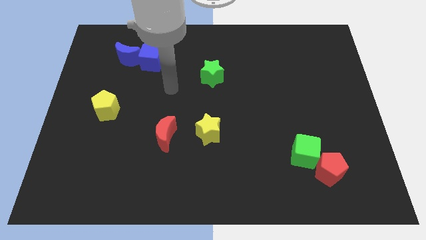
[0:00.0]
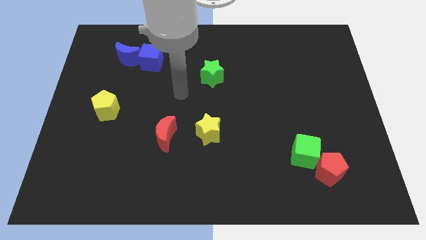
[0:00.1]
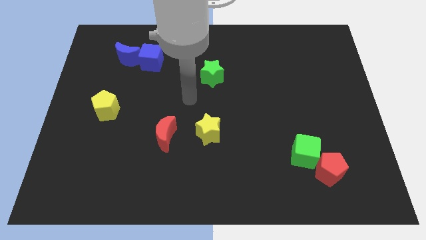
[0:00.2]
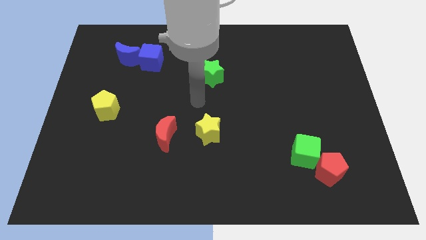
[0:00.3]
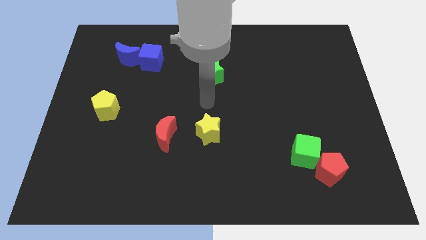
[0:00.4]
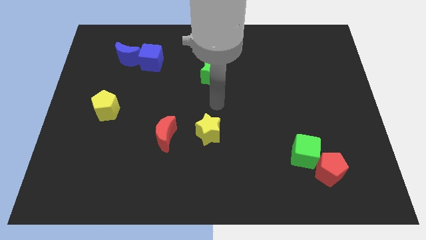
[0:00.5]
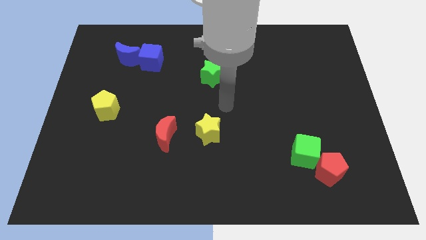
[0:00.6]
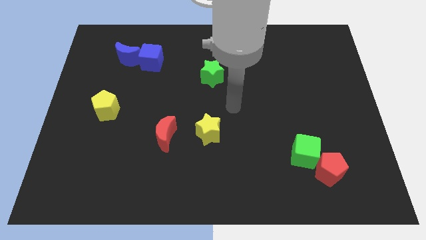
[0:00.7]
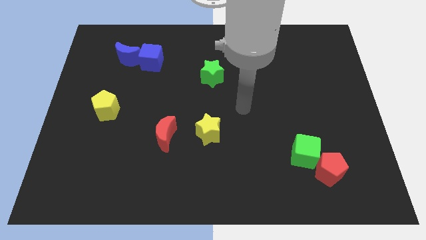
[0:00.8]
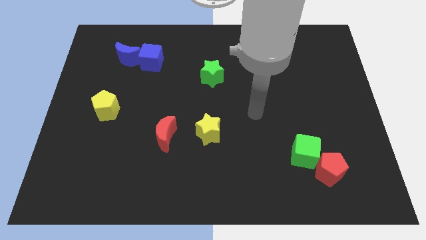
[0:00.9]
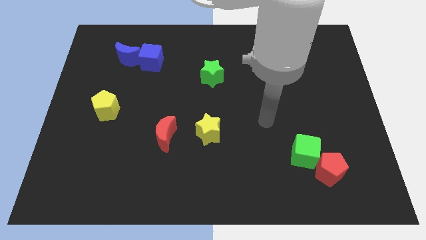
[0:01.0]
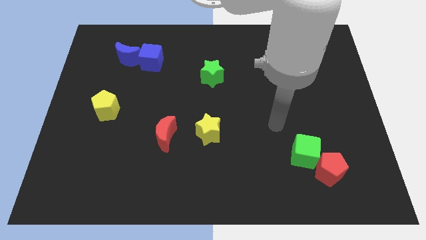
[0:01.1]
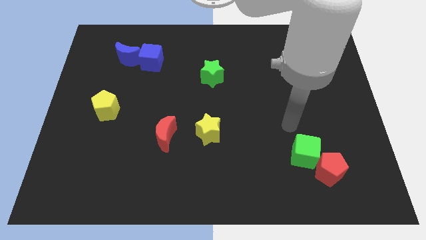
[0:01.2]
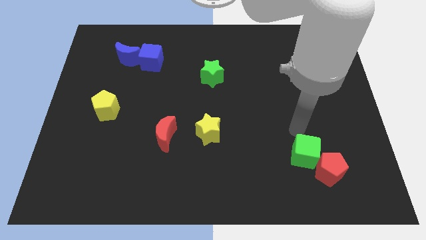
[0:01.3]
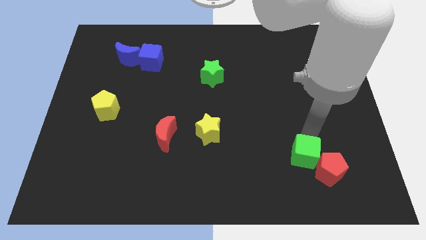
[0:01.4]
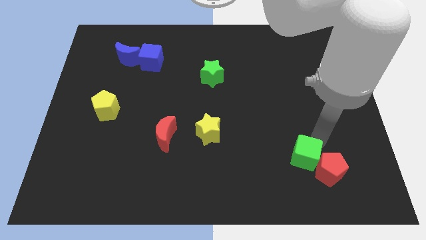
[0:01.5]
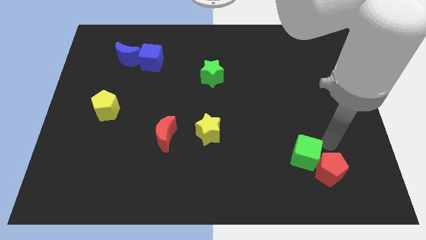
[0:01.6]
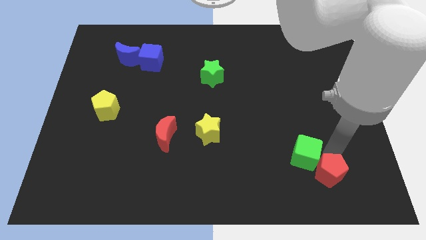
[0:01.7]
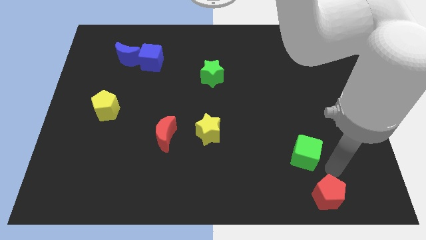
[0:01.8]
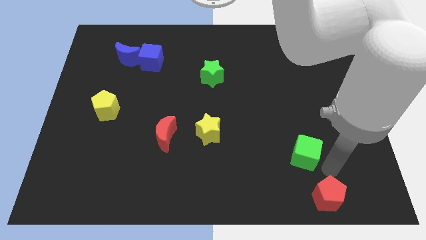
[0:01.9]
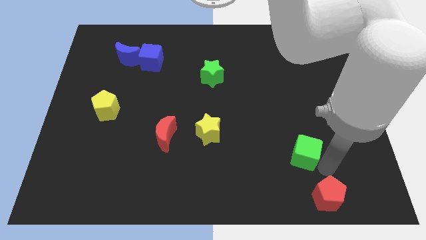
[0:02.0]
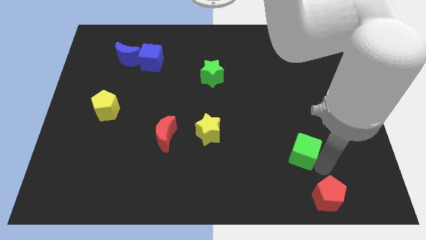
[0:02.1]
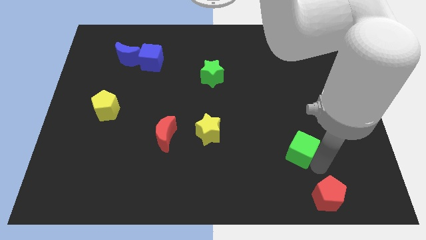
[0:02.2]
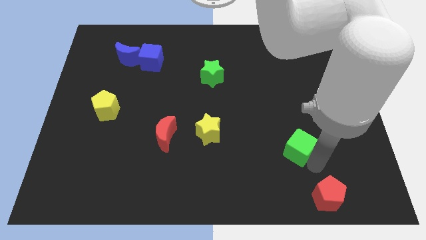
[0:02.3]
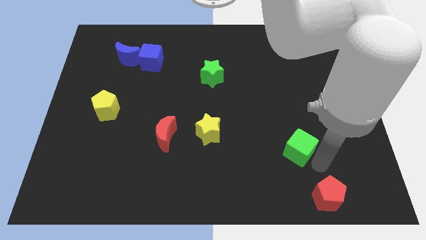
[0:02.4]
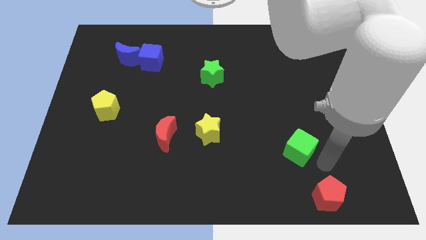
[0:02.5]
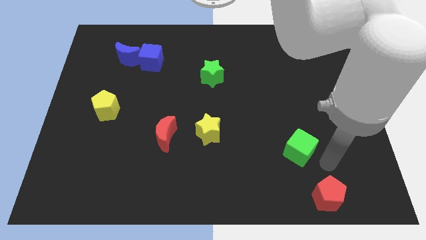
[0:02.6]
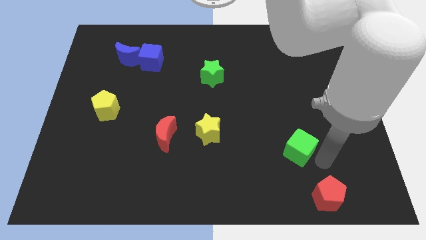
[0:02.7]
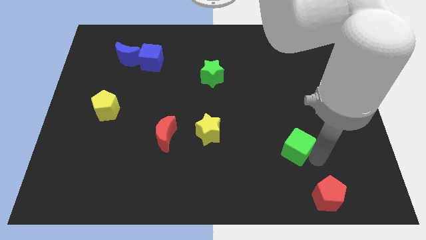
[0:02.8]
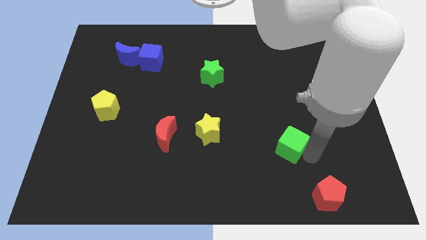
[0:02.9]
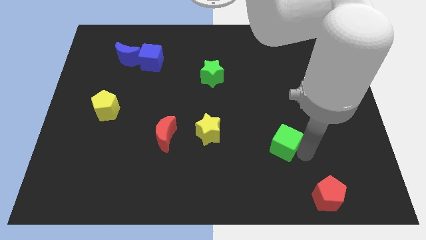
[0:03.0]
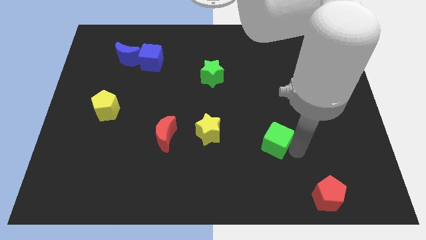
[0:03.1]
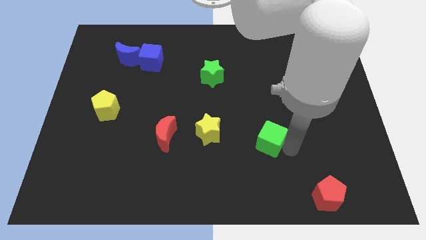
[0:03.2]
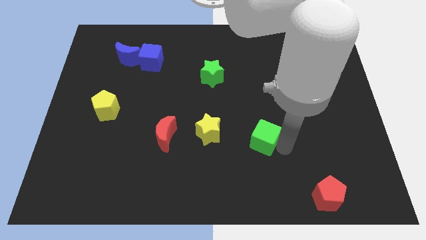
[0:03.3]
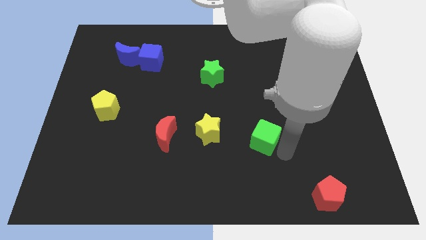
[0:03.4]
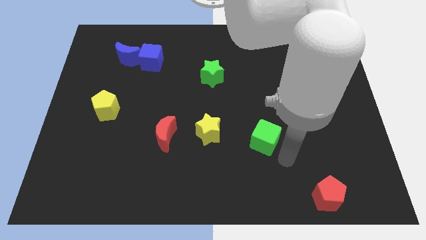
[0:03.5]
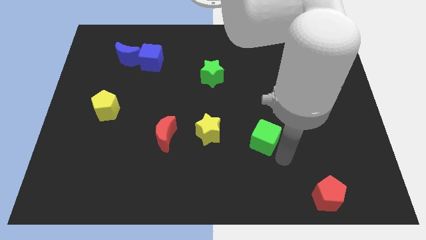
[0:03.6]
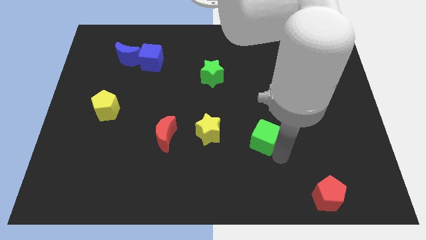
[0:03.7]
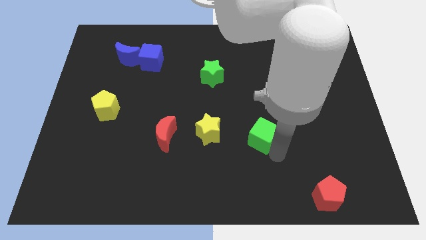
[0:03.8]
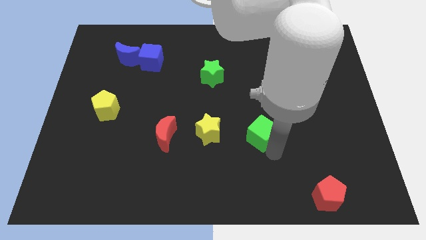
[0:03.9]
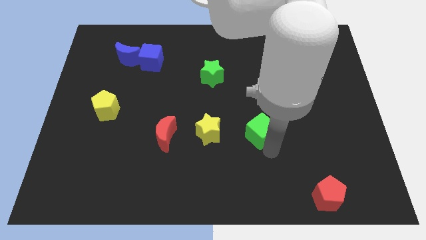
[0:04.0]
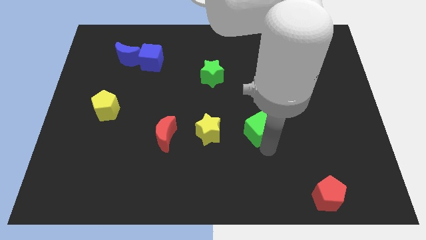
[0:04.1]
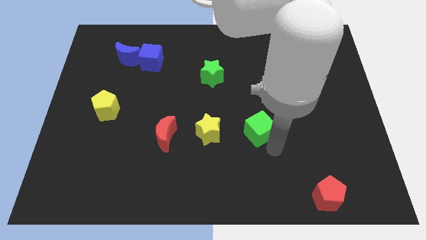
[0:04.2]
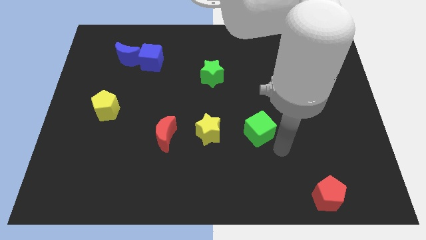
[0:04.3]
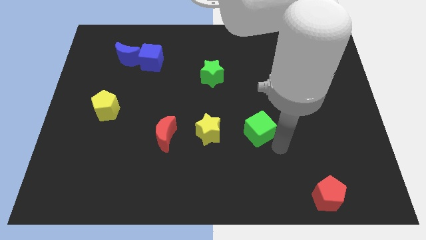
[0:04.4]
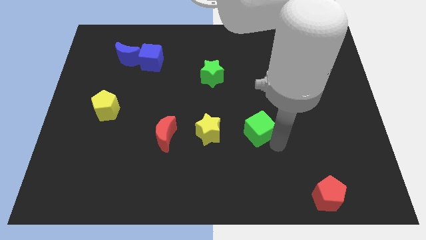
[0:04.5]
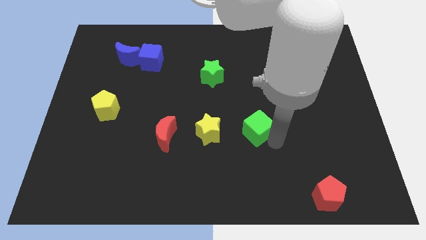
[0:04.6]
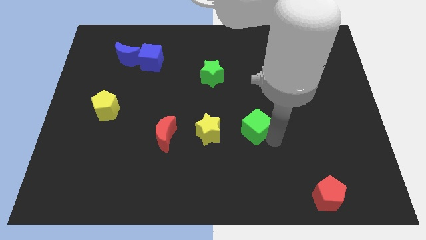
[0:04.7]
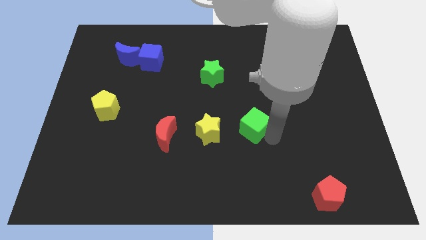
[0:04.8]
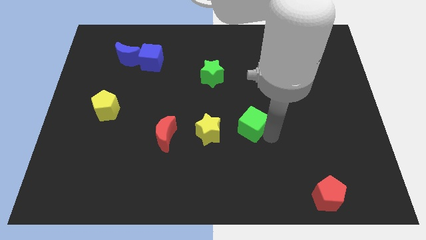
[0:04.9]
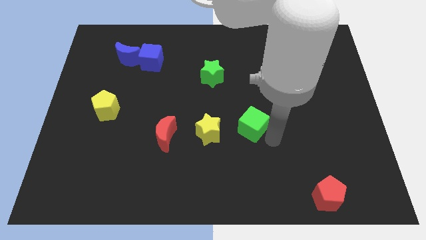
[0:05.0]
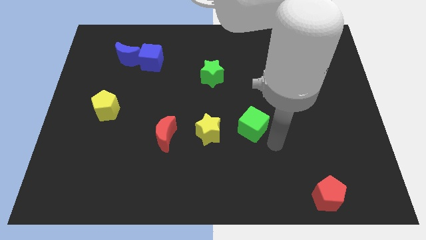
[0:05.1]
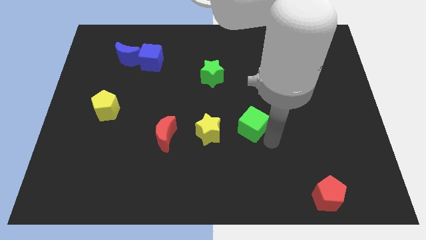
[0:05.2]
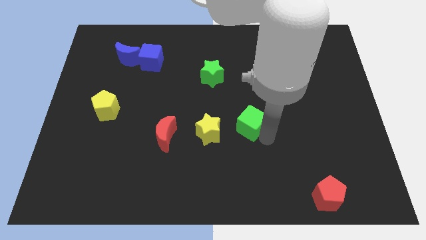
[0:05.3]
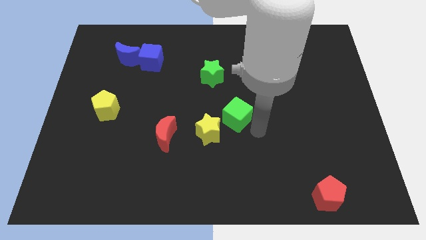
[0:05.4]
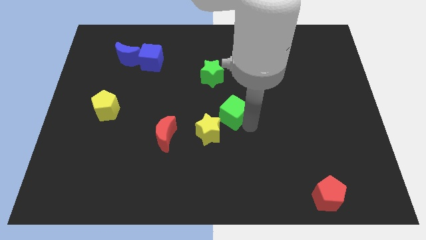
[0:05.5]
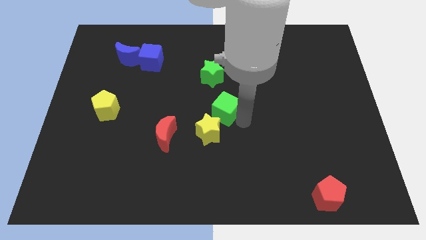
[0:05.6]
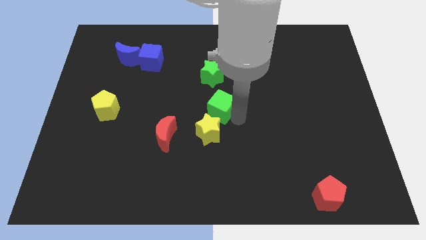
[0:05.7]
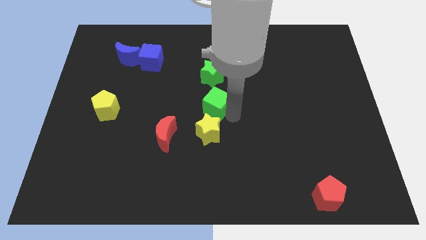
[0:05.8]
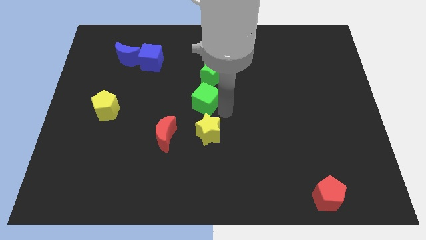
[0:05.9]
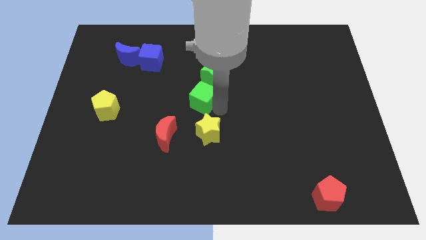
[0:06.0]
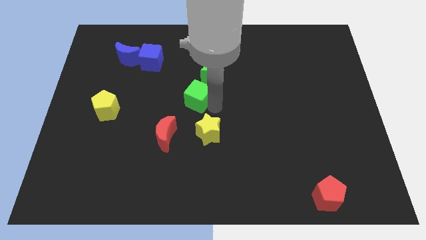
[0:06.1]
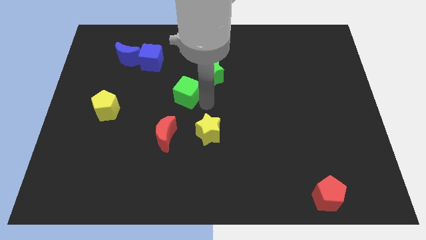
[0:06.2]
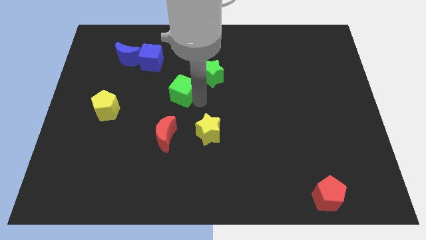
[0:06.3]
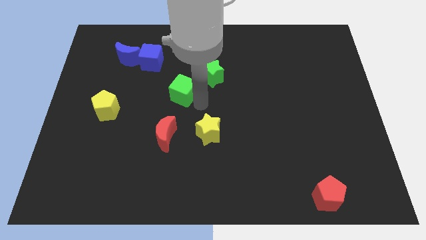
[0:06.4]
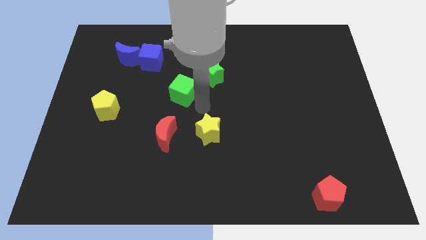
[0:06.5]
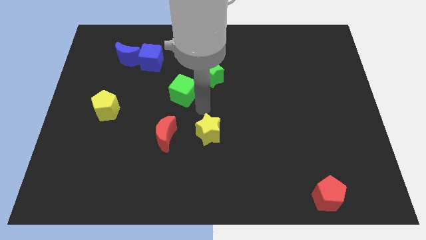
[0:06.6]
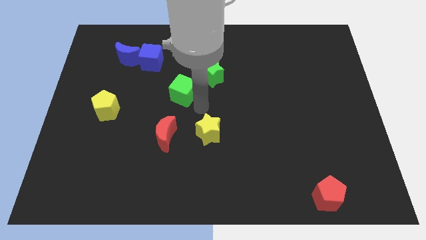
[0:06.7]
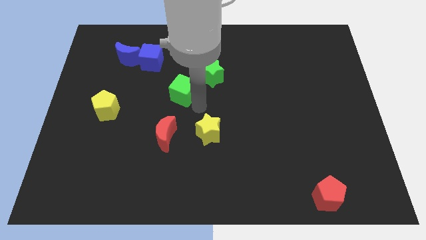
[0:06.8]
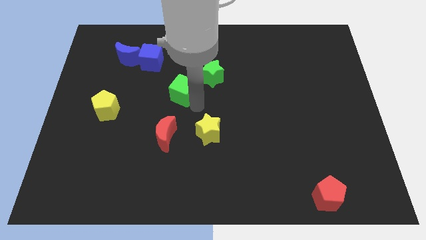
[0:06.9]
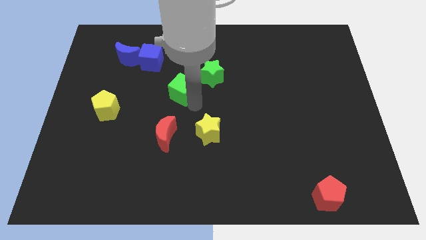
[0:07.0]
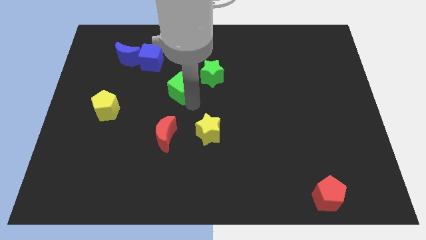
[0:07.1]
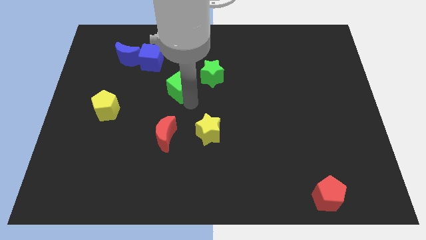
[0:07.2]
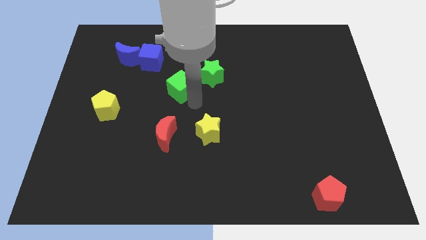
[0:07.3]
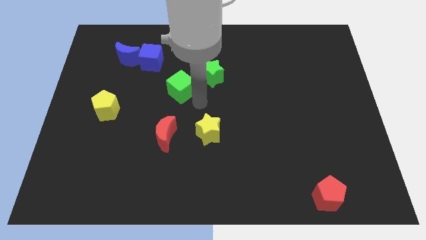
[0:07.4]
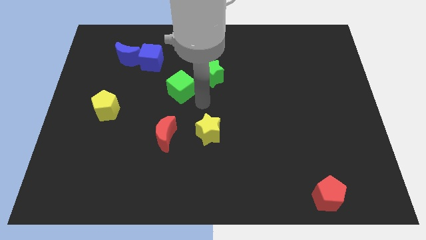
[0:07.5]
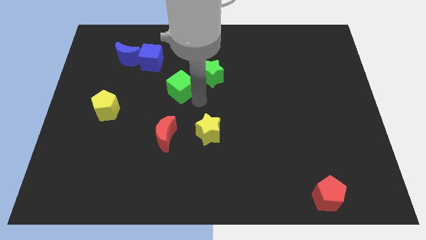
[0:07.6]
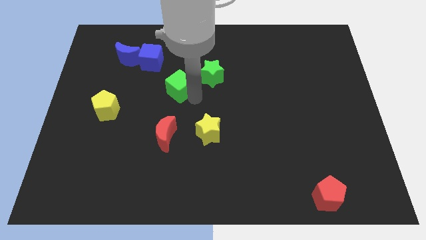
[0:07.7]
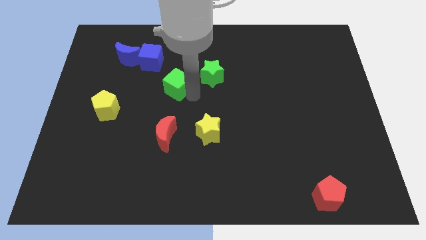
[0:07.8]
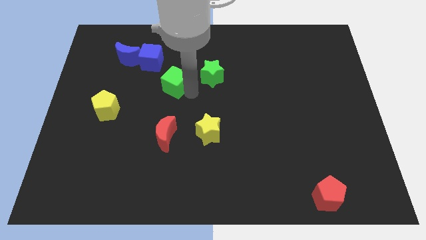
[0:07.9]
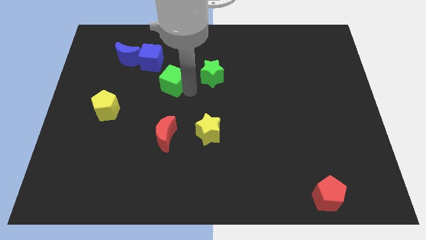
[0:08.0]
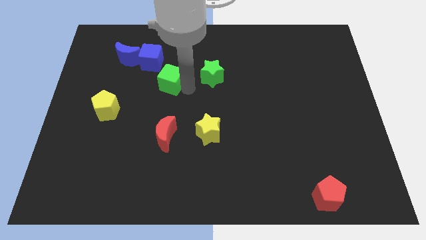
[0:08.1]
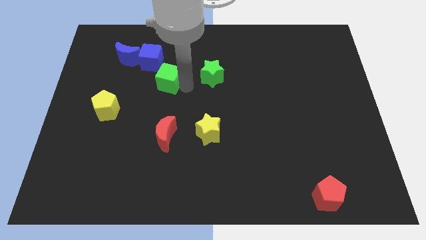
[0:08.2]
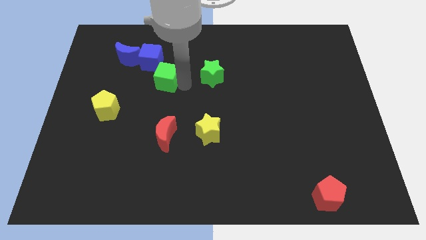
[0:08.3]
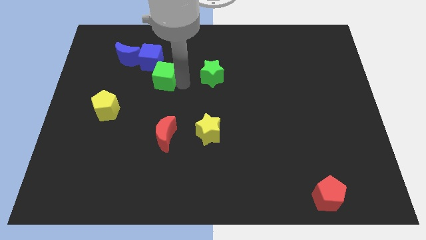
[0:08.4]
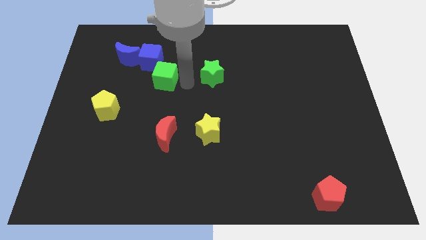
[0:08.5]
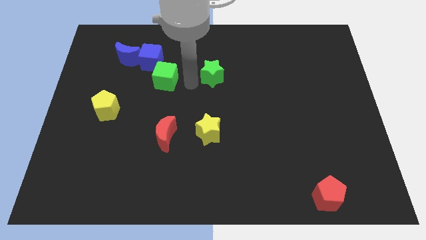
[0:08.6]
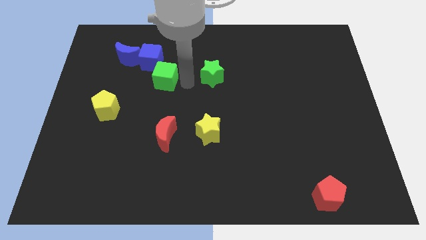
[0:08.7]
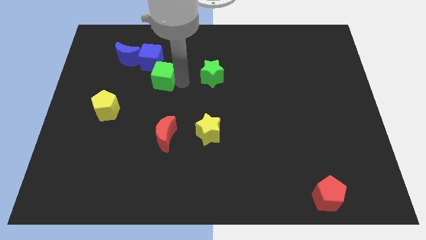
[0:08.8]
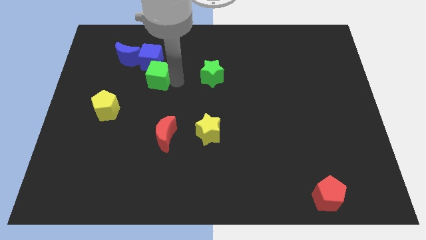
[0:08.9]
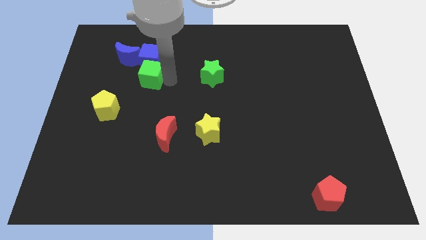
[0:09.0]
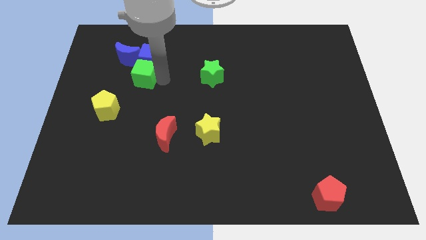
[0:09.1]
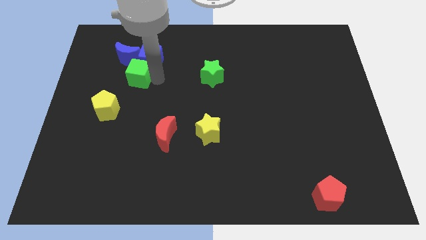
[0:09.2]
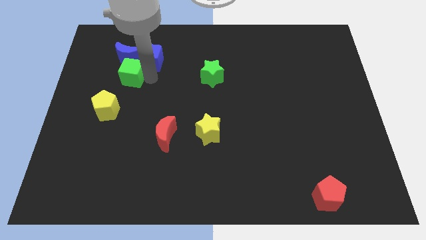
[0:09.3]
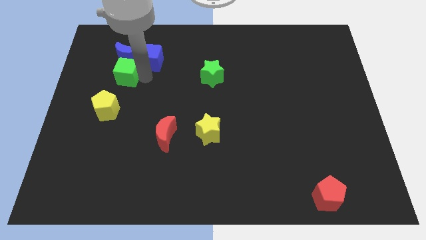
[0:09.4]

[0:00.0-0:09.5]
move the green cube to the bottom left of the blue moon
